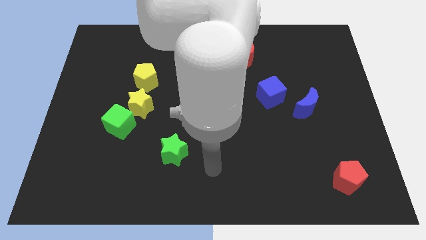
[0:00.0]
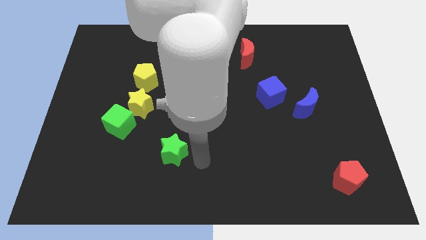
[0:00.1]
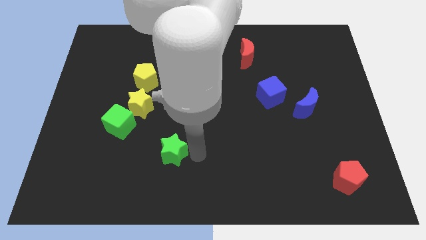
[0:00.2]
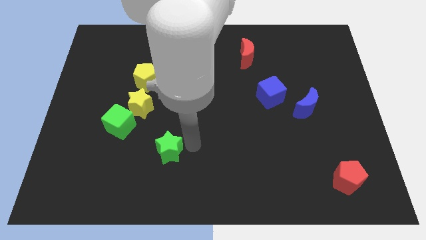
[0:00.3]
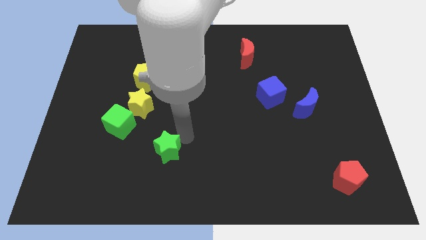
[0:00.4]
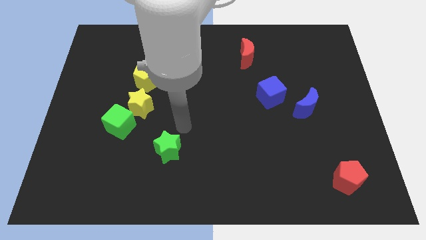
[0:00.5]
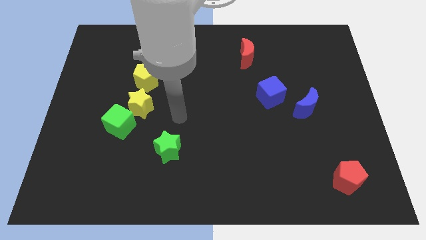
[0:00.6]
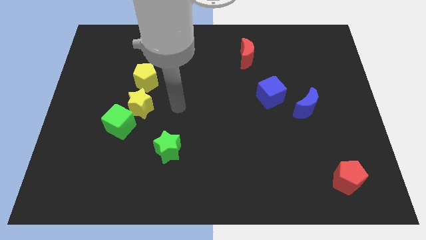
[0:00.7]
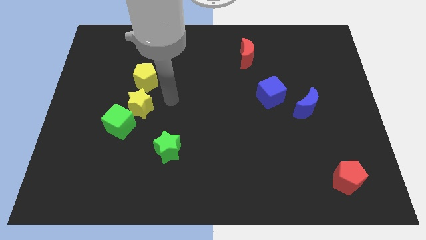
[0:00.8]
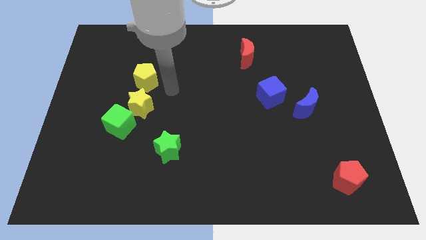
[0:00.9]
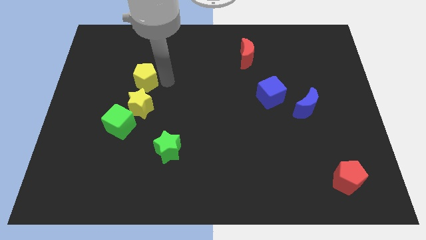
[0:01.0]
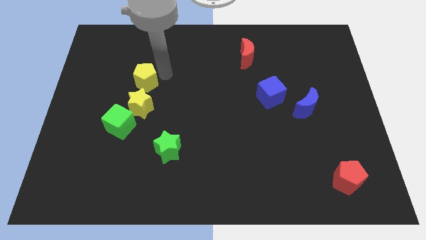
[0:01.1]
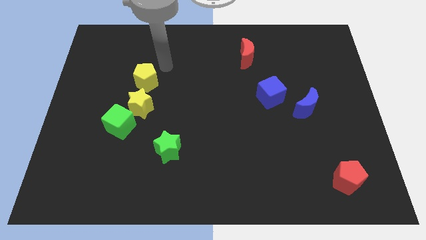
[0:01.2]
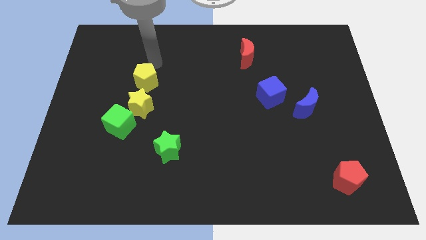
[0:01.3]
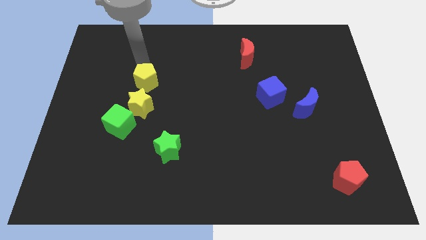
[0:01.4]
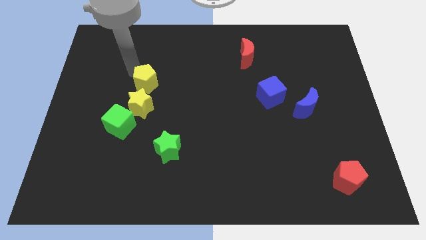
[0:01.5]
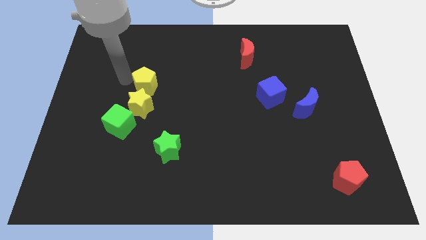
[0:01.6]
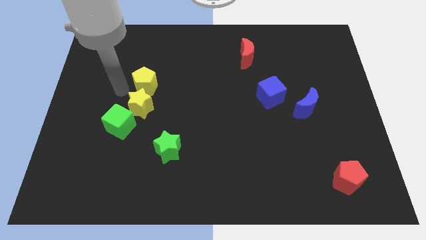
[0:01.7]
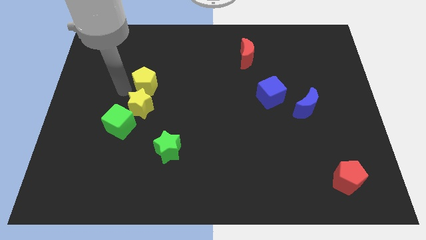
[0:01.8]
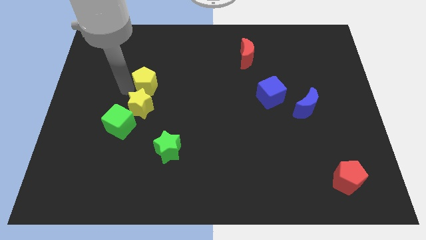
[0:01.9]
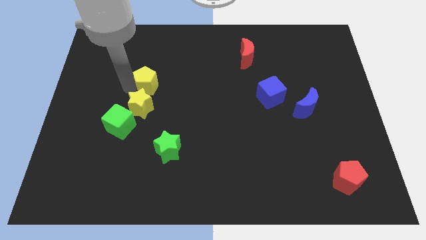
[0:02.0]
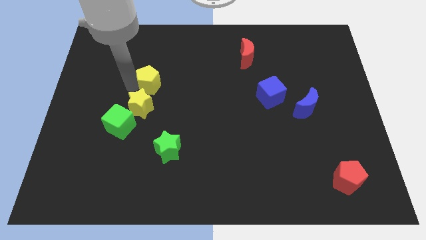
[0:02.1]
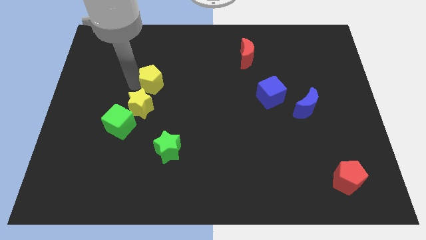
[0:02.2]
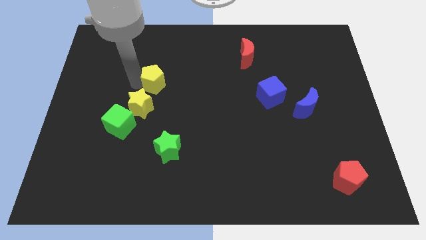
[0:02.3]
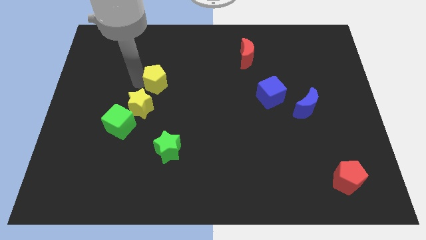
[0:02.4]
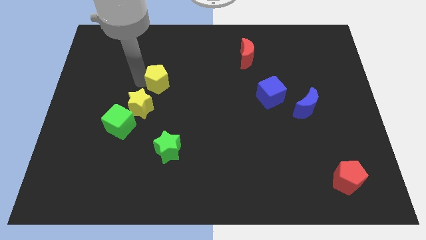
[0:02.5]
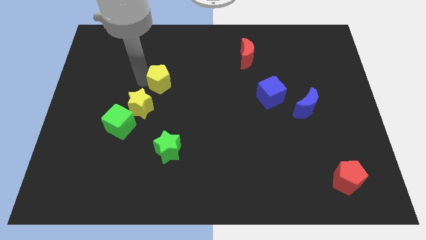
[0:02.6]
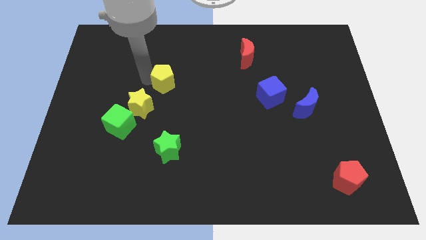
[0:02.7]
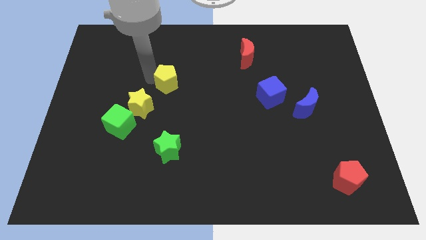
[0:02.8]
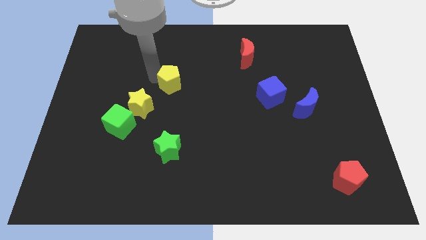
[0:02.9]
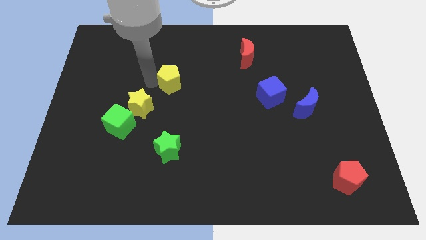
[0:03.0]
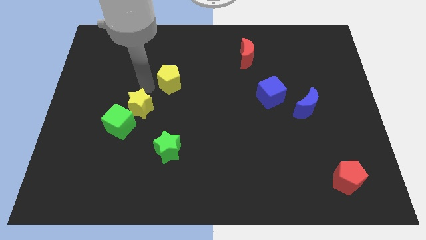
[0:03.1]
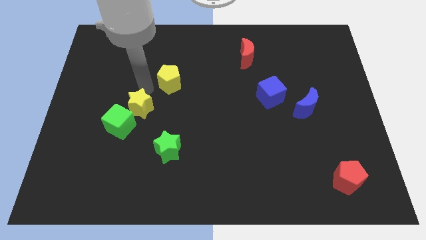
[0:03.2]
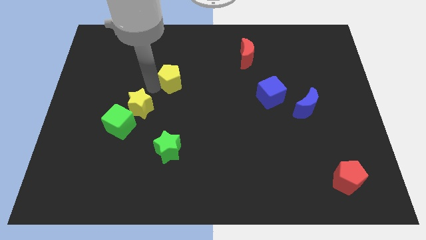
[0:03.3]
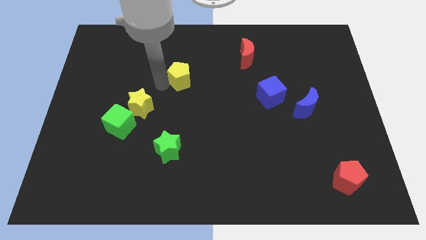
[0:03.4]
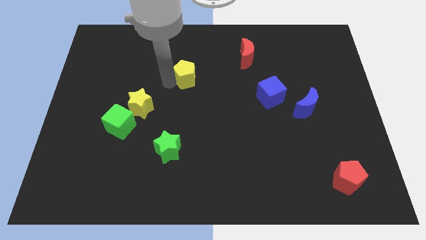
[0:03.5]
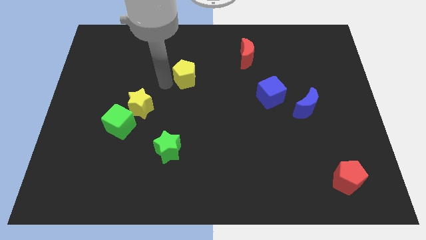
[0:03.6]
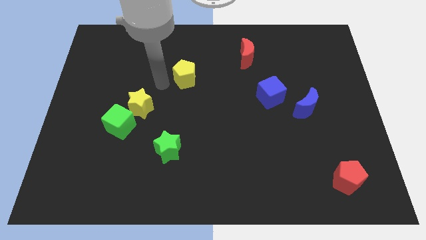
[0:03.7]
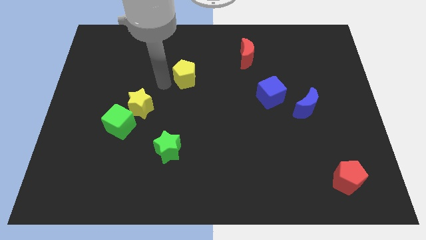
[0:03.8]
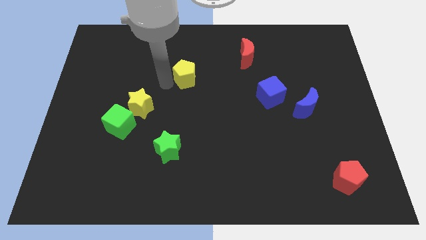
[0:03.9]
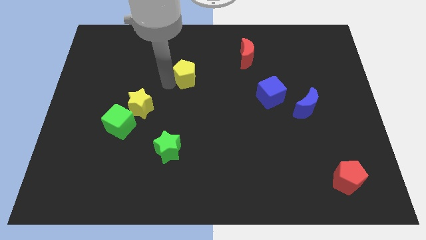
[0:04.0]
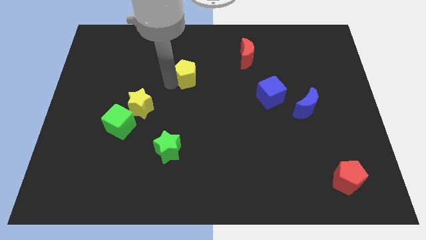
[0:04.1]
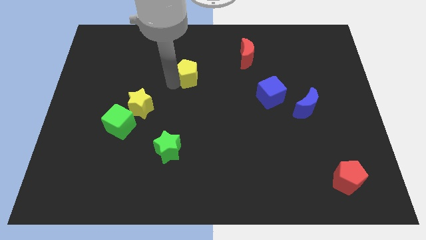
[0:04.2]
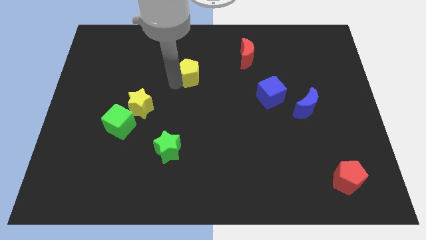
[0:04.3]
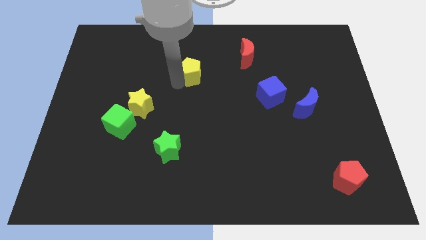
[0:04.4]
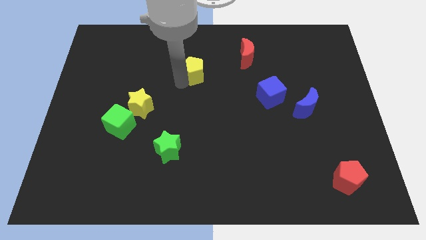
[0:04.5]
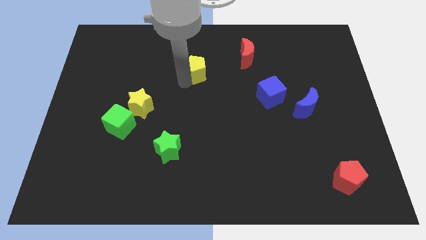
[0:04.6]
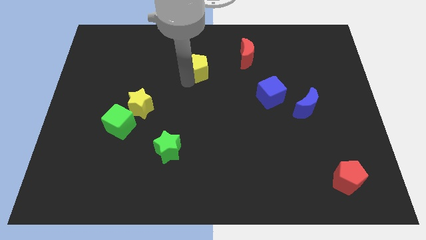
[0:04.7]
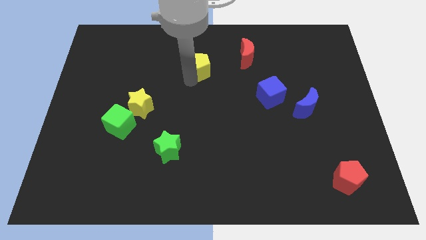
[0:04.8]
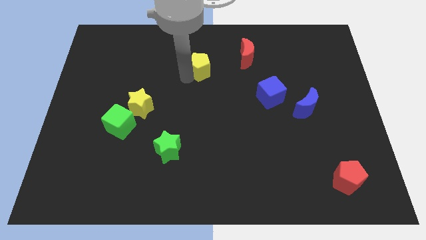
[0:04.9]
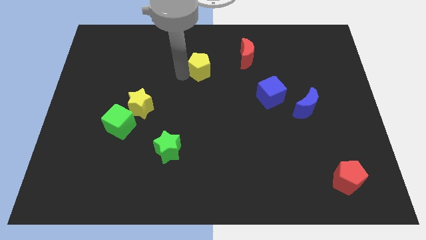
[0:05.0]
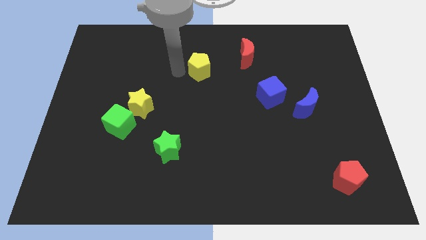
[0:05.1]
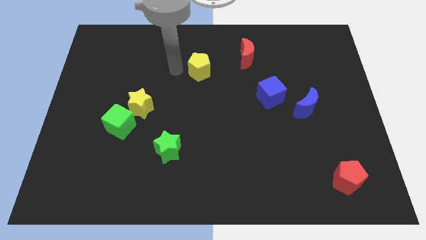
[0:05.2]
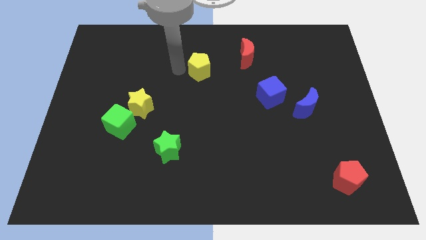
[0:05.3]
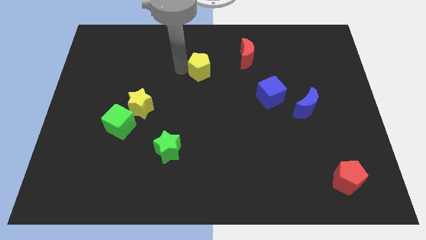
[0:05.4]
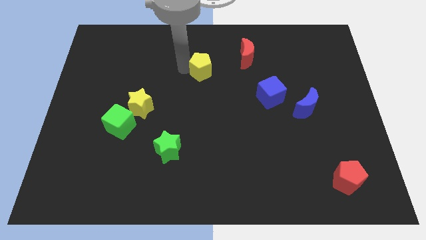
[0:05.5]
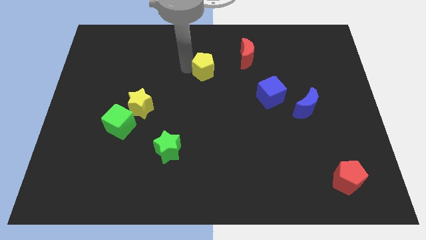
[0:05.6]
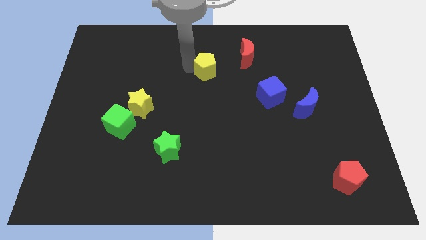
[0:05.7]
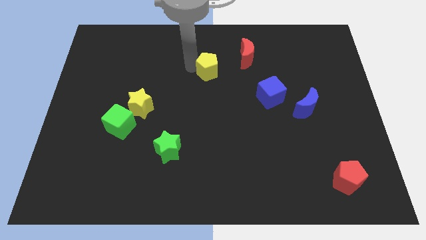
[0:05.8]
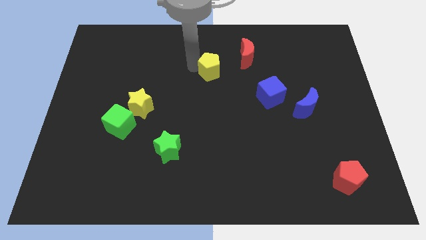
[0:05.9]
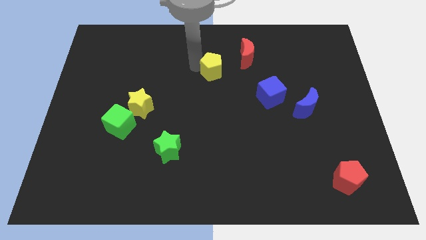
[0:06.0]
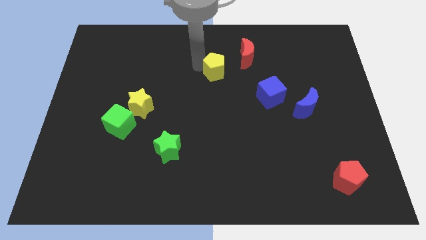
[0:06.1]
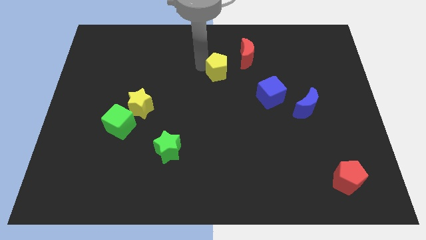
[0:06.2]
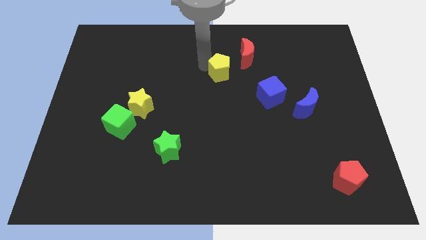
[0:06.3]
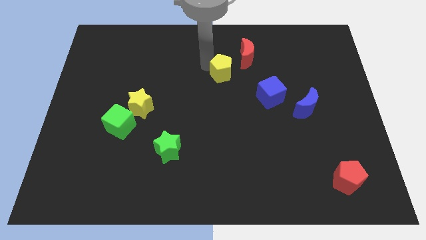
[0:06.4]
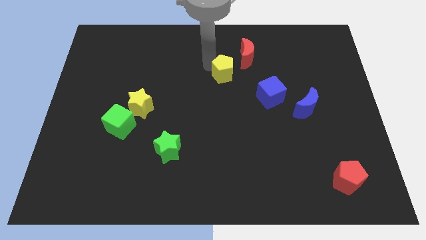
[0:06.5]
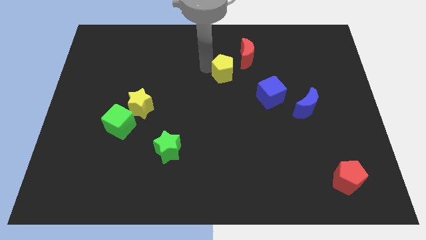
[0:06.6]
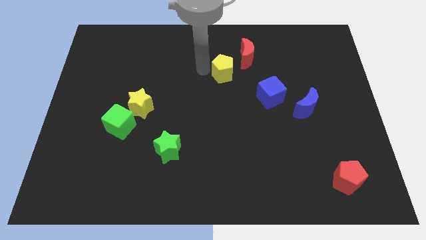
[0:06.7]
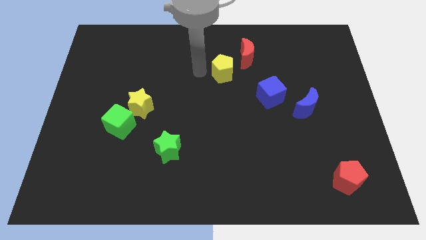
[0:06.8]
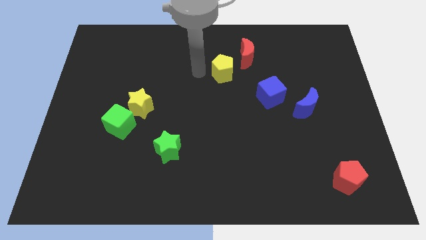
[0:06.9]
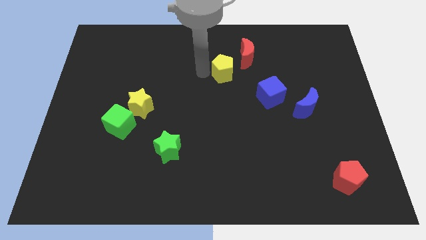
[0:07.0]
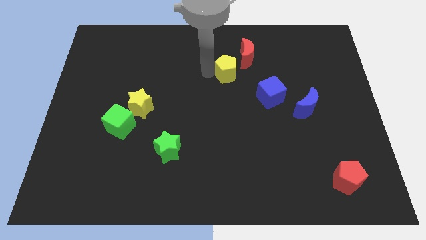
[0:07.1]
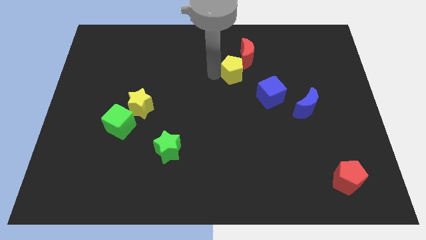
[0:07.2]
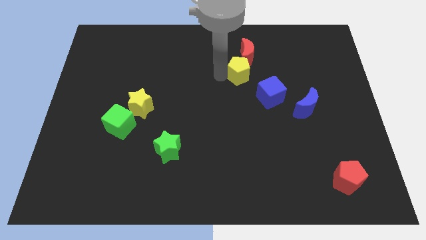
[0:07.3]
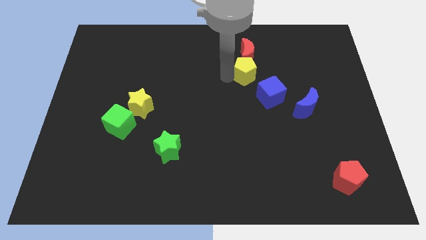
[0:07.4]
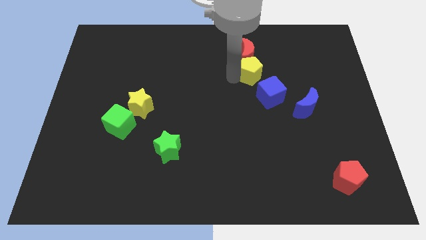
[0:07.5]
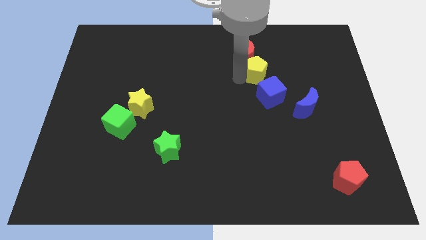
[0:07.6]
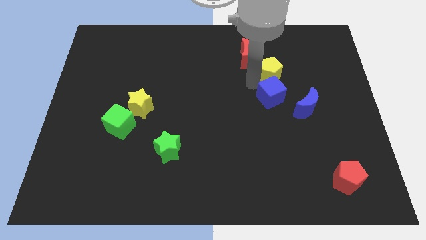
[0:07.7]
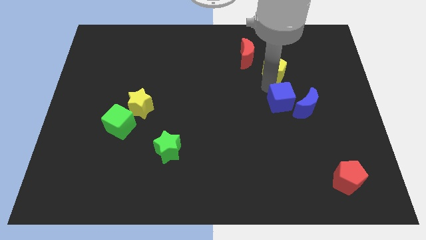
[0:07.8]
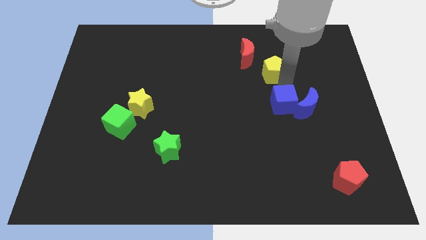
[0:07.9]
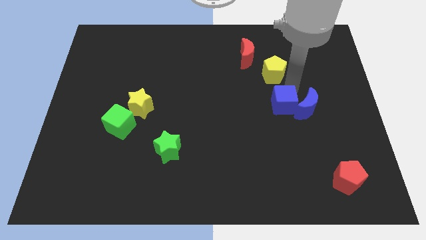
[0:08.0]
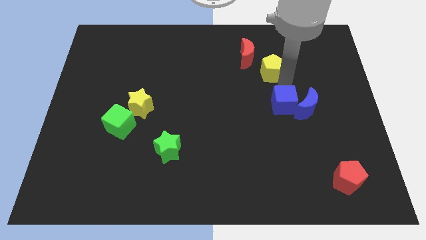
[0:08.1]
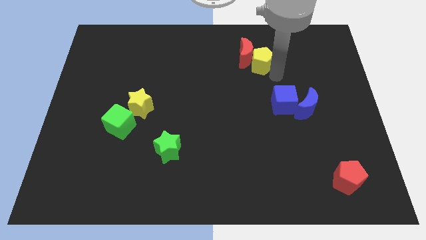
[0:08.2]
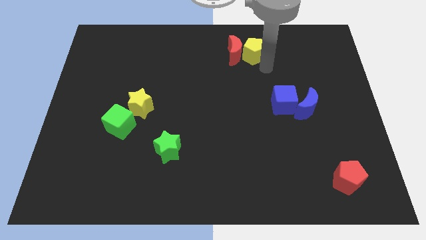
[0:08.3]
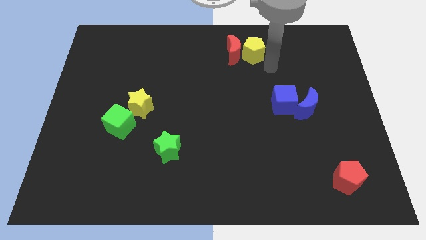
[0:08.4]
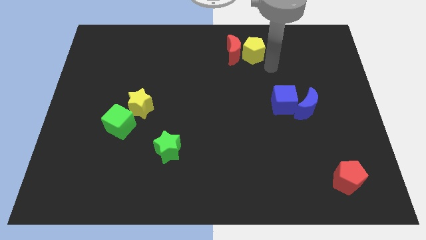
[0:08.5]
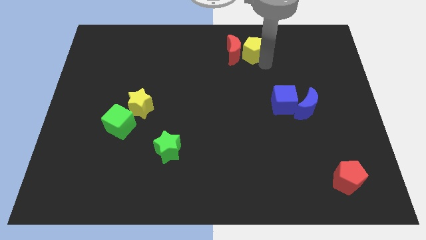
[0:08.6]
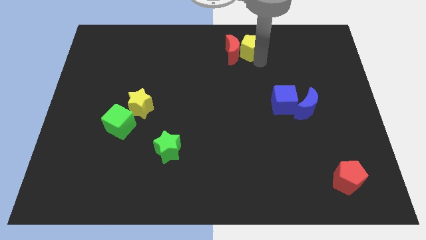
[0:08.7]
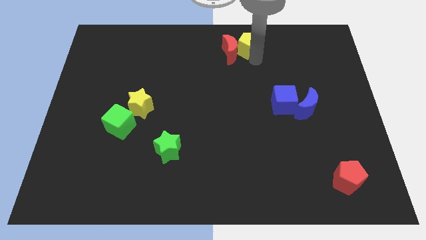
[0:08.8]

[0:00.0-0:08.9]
slide the yellow pentagon to the top
